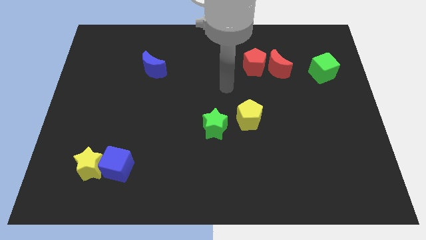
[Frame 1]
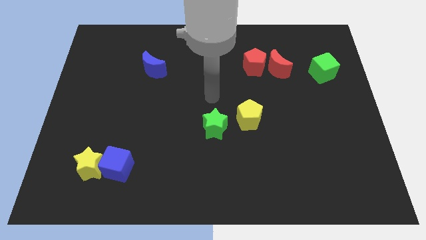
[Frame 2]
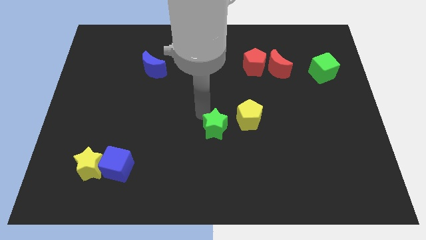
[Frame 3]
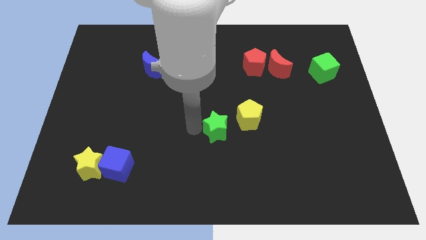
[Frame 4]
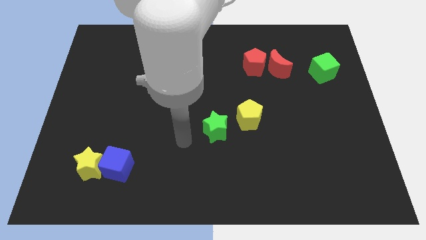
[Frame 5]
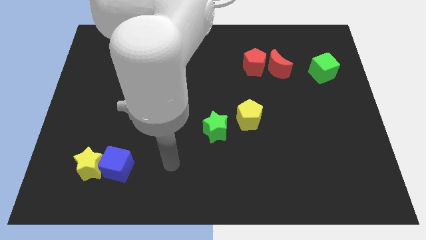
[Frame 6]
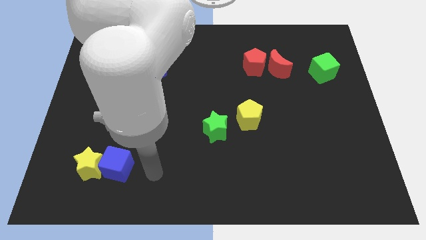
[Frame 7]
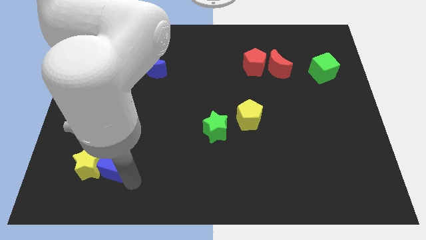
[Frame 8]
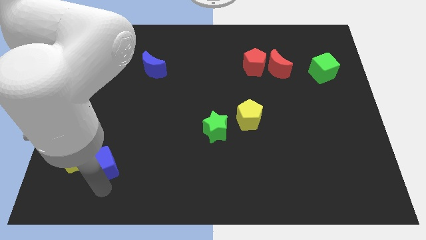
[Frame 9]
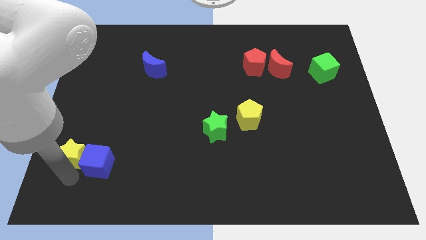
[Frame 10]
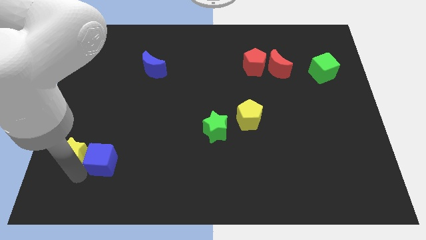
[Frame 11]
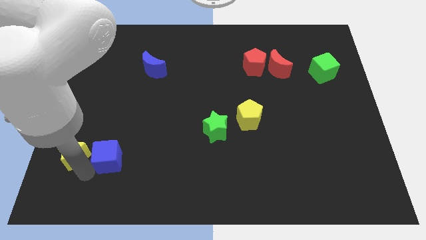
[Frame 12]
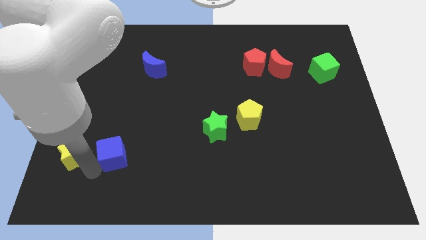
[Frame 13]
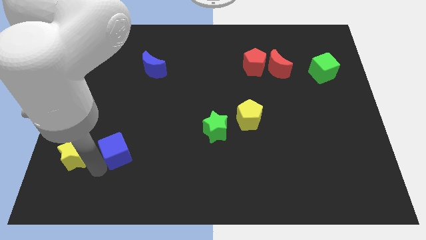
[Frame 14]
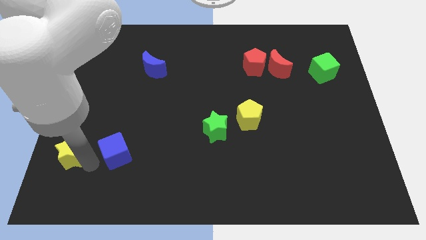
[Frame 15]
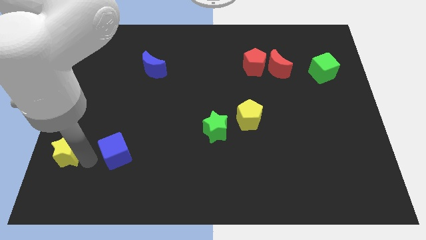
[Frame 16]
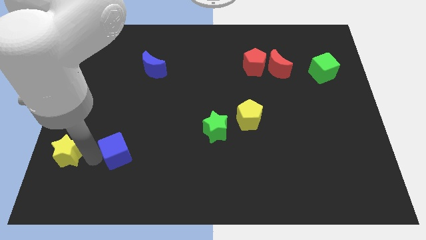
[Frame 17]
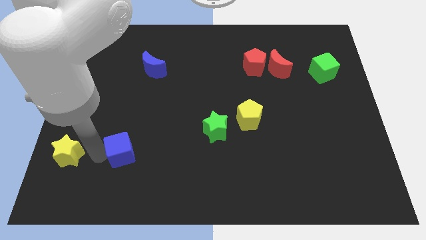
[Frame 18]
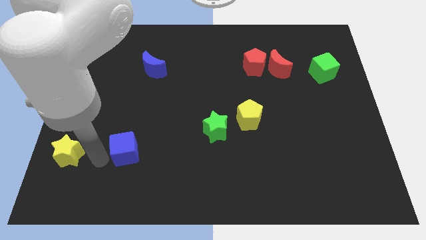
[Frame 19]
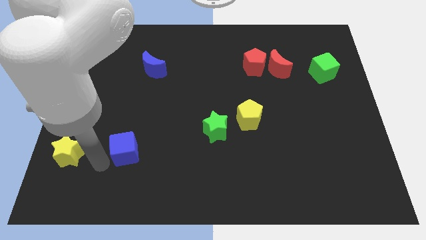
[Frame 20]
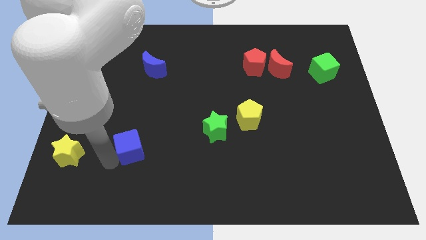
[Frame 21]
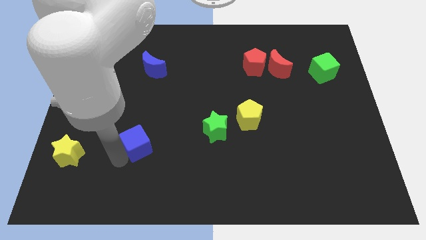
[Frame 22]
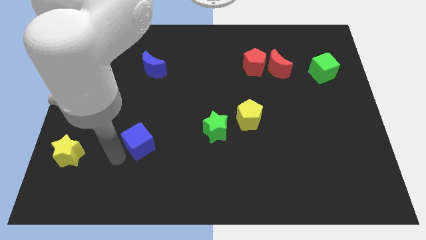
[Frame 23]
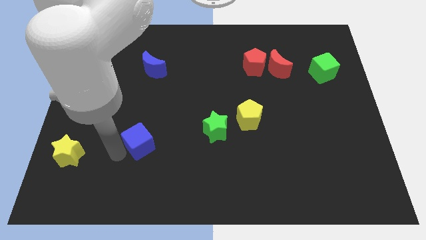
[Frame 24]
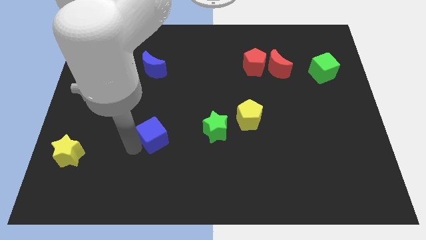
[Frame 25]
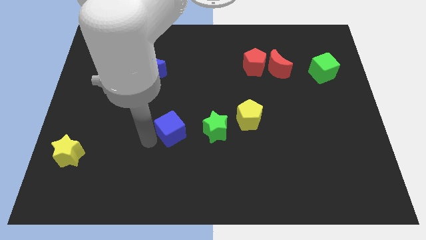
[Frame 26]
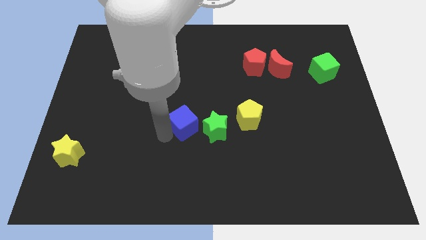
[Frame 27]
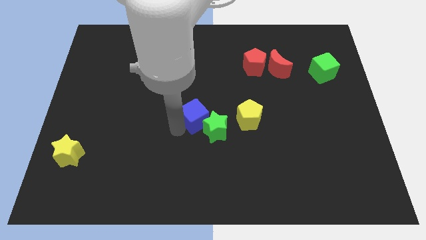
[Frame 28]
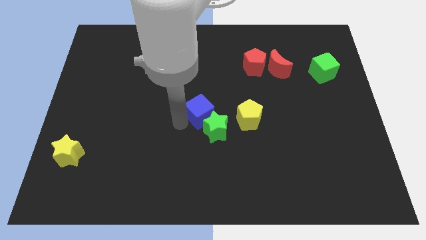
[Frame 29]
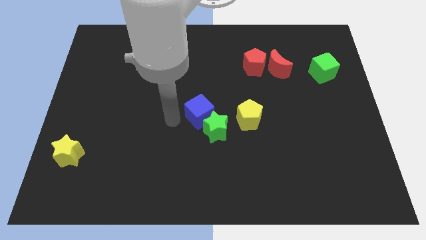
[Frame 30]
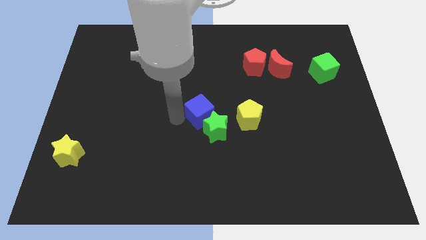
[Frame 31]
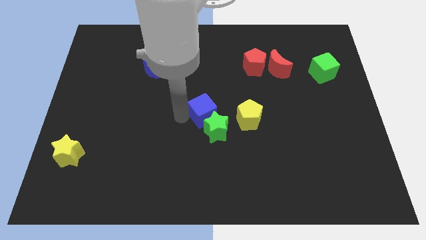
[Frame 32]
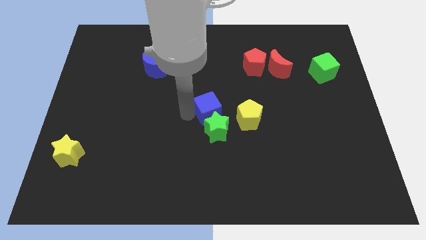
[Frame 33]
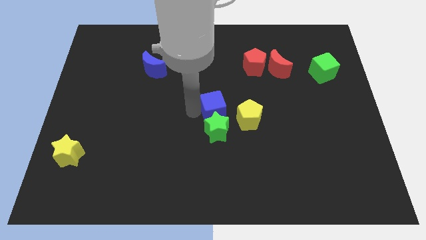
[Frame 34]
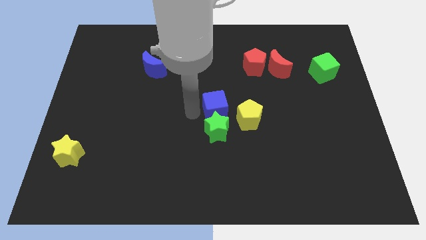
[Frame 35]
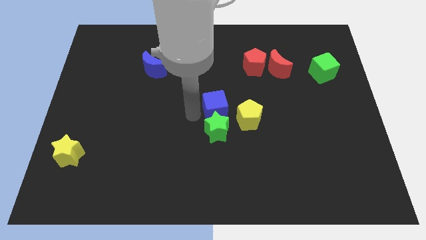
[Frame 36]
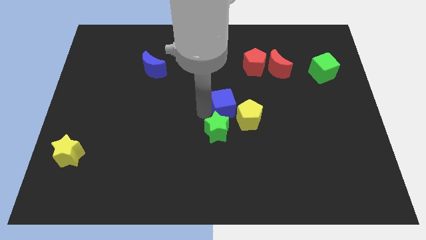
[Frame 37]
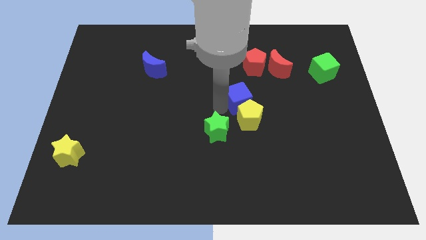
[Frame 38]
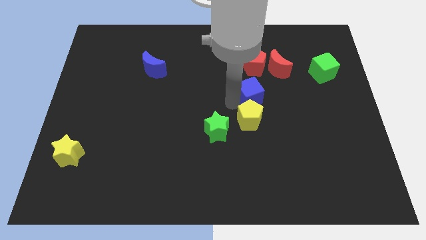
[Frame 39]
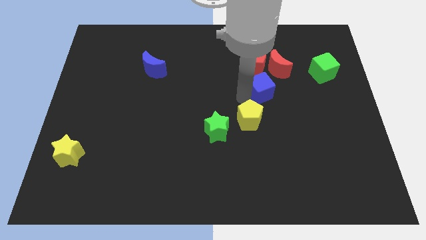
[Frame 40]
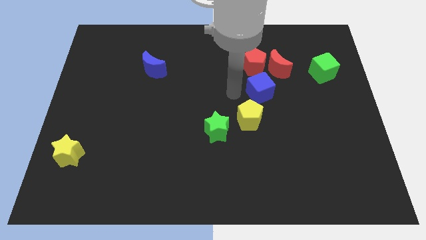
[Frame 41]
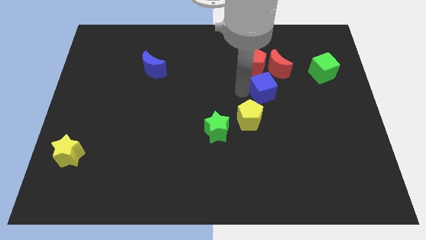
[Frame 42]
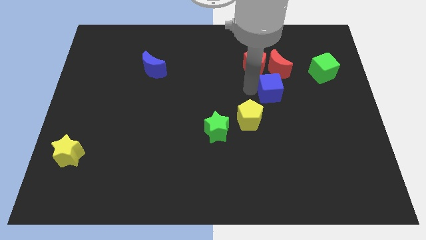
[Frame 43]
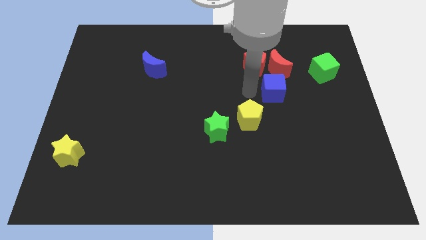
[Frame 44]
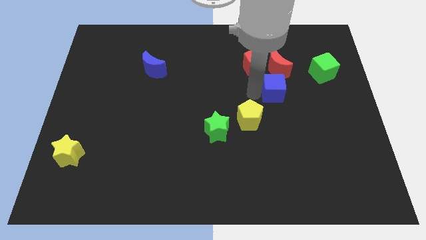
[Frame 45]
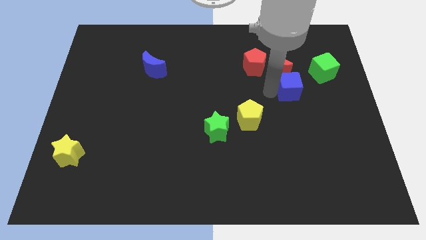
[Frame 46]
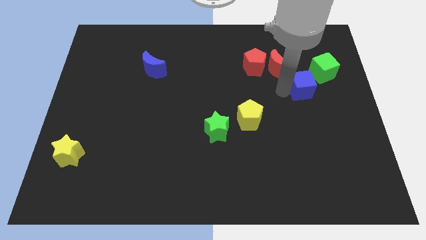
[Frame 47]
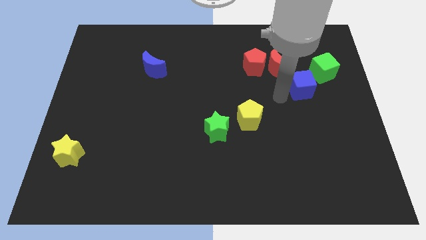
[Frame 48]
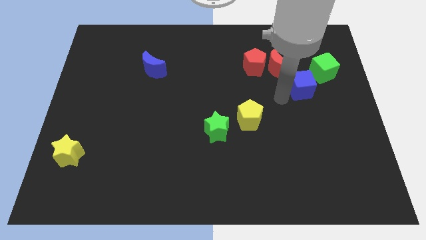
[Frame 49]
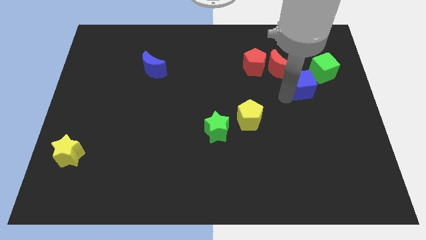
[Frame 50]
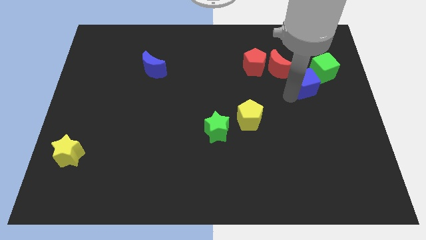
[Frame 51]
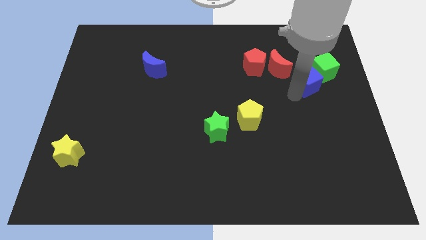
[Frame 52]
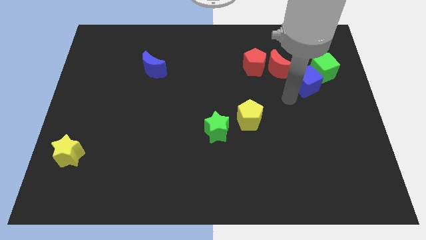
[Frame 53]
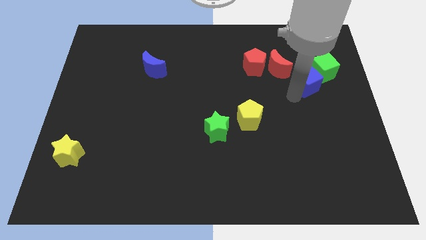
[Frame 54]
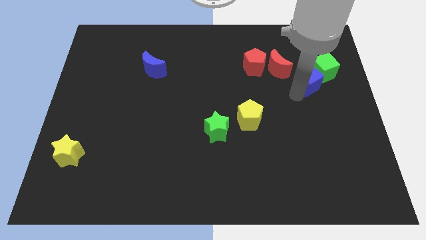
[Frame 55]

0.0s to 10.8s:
push the blue cube towards the green cube

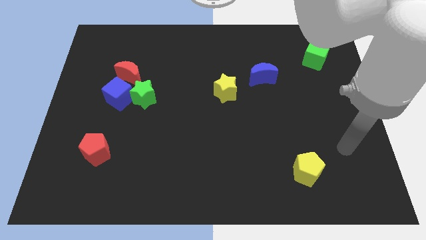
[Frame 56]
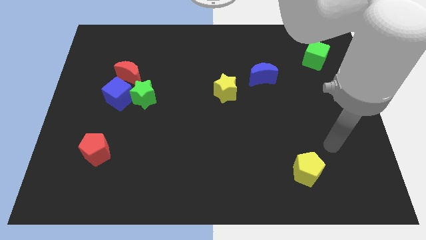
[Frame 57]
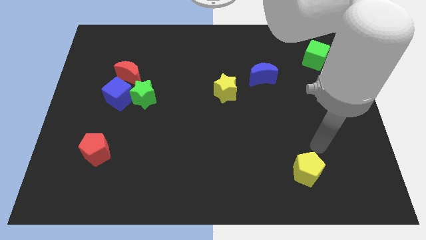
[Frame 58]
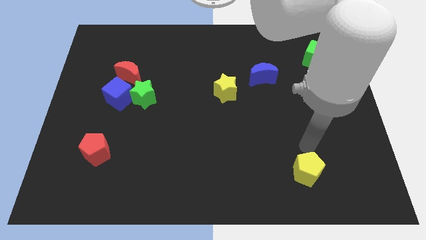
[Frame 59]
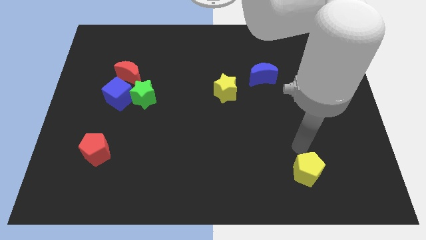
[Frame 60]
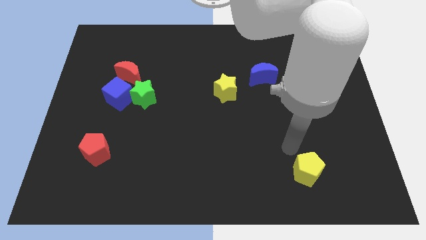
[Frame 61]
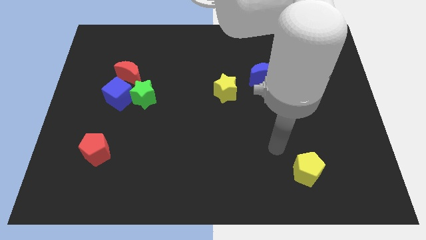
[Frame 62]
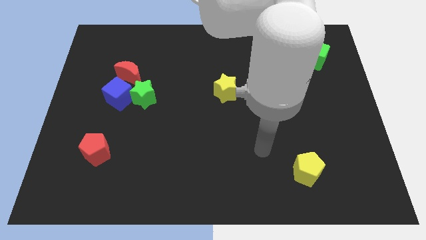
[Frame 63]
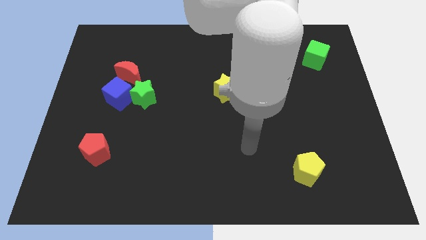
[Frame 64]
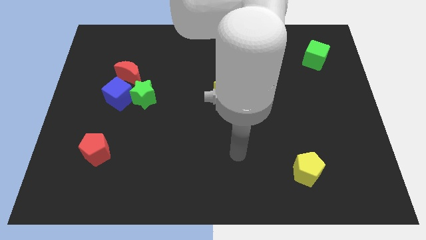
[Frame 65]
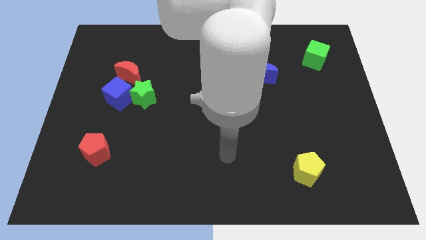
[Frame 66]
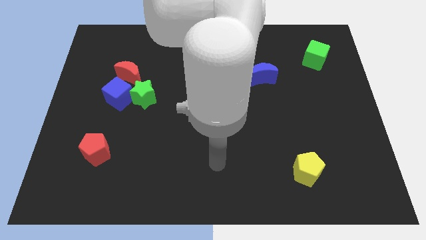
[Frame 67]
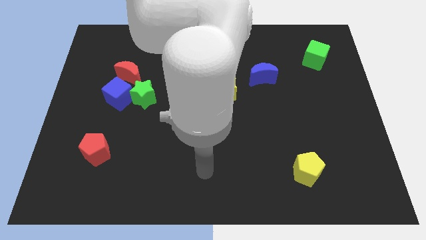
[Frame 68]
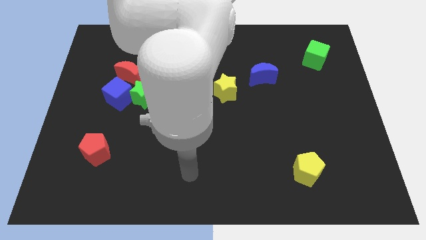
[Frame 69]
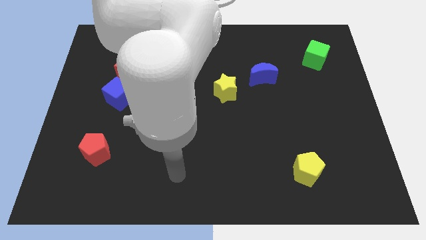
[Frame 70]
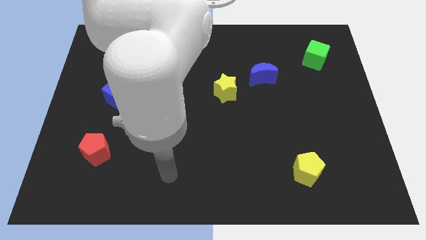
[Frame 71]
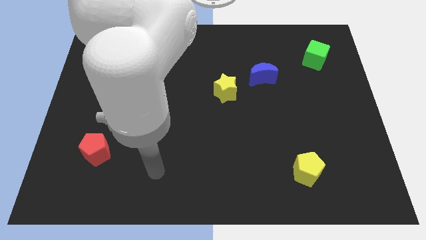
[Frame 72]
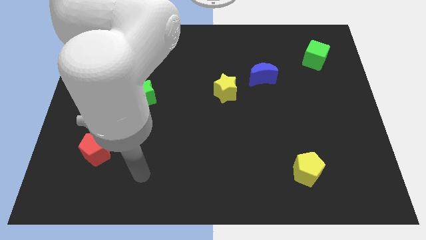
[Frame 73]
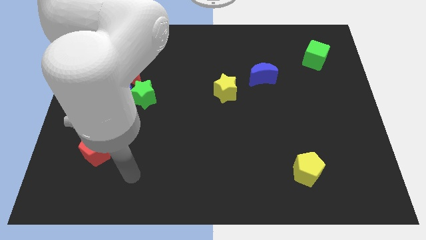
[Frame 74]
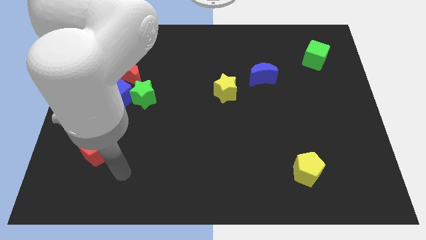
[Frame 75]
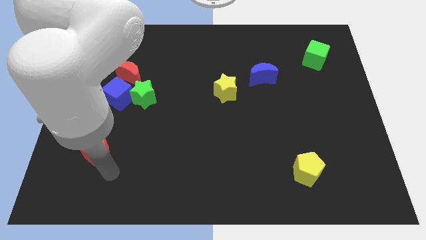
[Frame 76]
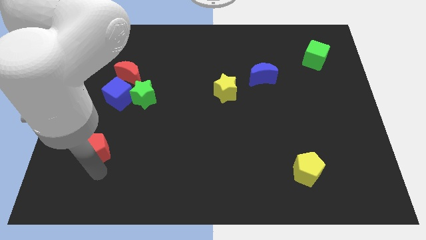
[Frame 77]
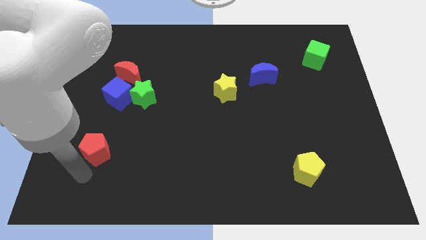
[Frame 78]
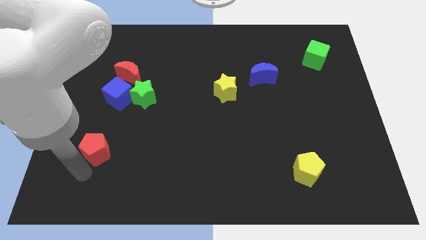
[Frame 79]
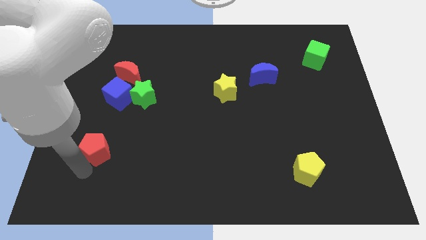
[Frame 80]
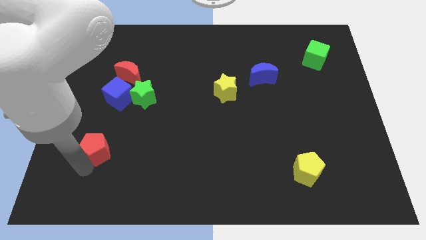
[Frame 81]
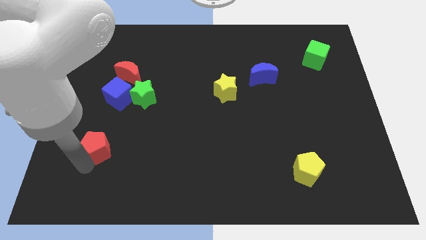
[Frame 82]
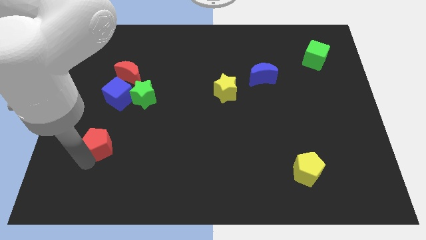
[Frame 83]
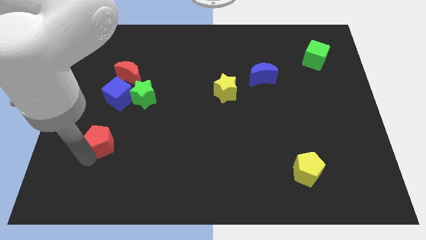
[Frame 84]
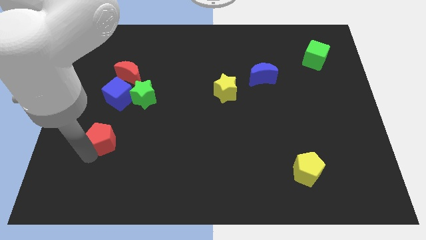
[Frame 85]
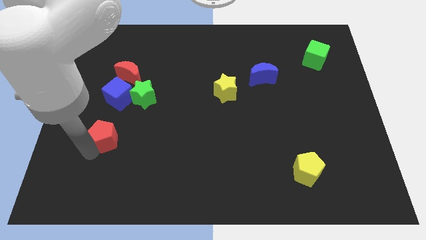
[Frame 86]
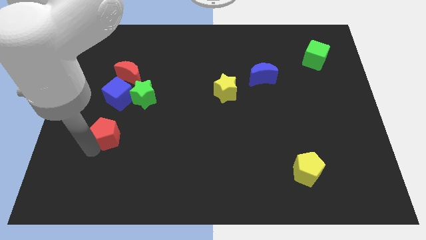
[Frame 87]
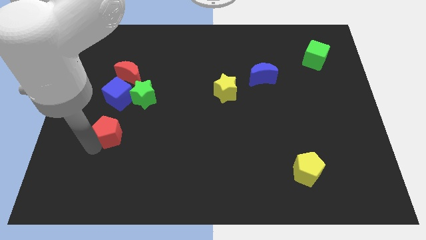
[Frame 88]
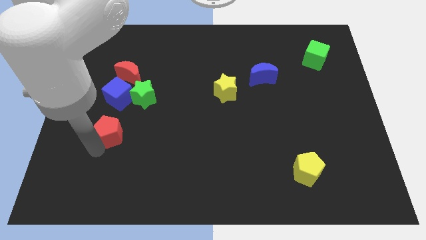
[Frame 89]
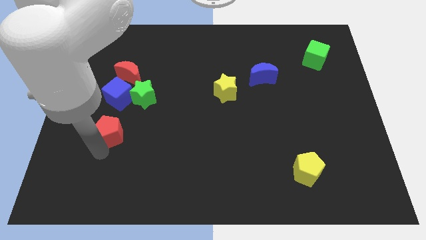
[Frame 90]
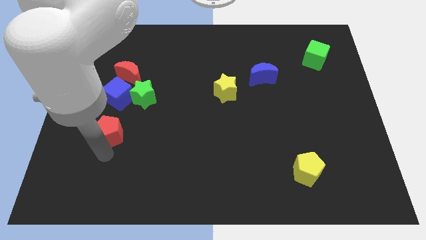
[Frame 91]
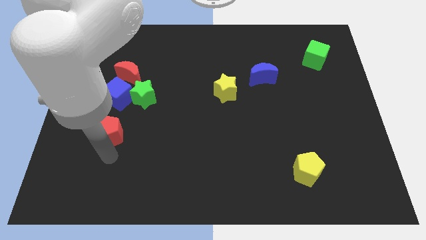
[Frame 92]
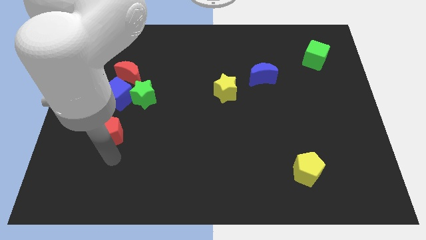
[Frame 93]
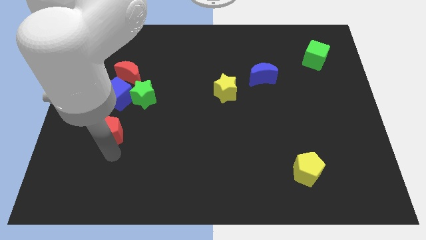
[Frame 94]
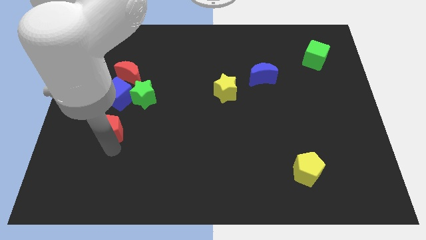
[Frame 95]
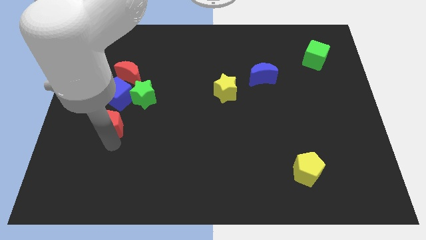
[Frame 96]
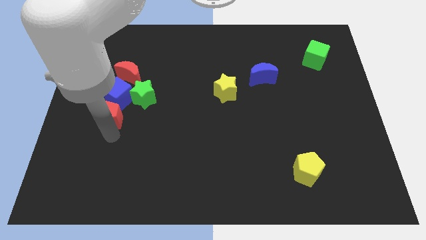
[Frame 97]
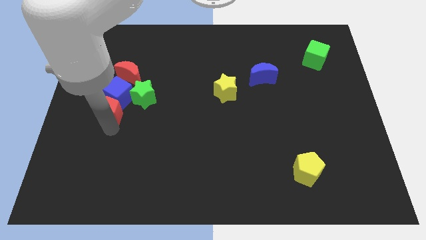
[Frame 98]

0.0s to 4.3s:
push the red pentagon close to the blue cube
